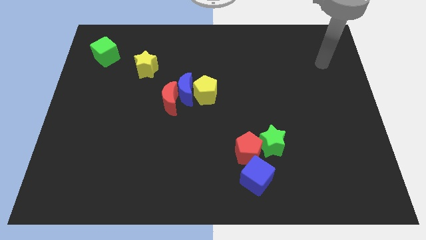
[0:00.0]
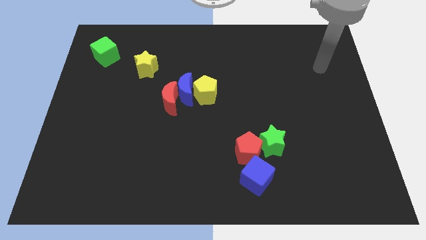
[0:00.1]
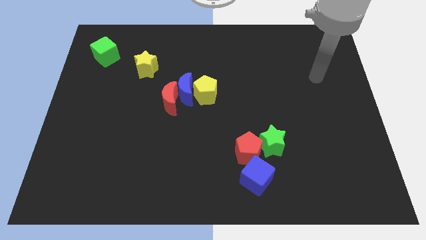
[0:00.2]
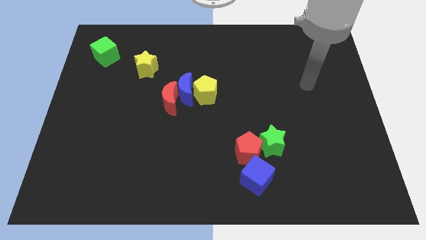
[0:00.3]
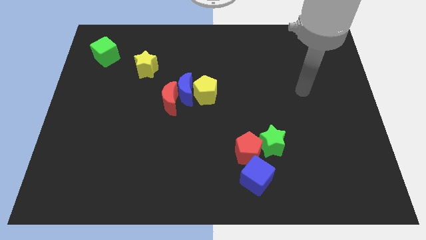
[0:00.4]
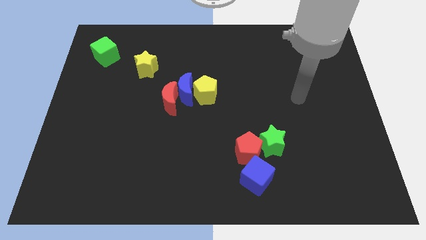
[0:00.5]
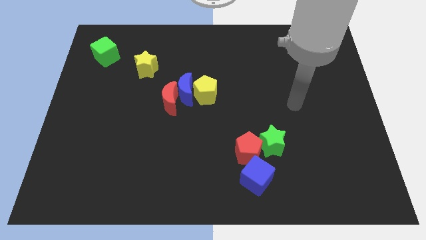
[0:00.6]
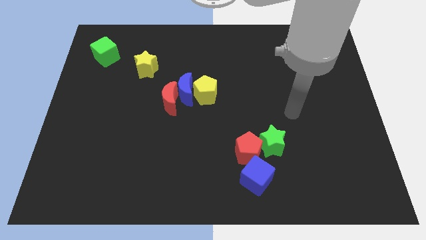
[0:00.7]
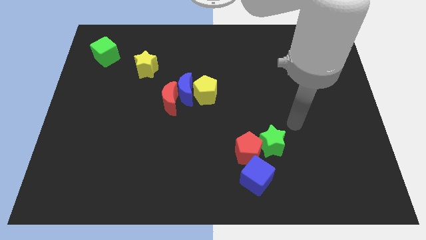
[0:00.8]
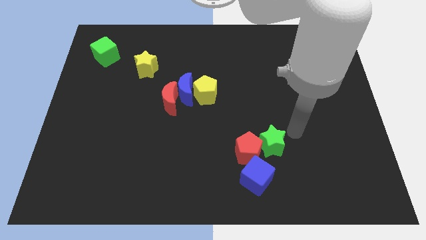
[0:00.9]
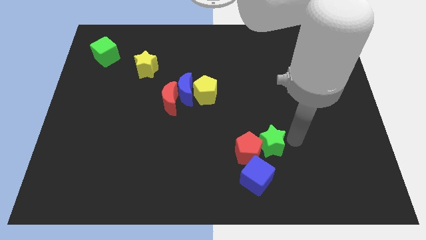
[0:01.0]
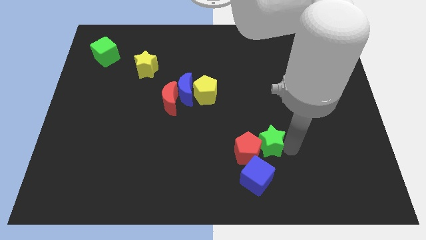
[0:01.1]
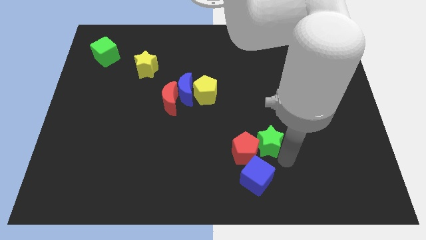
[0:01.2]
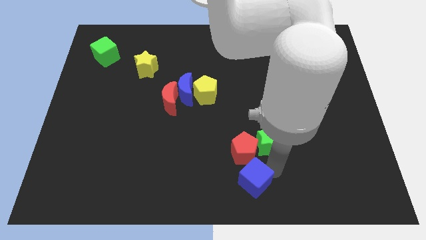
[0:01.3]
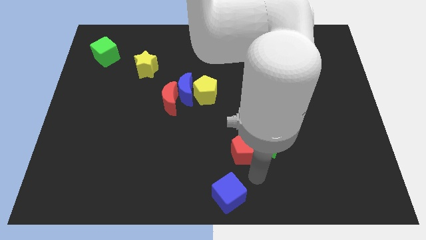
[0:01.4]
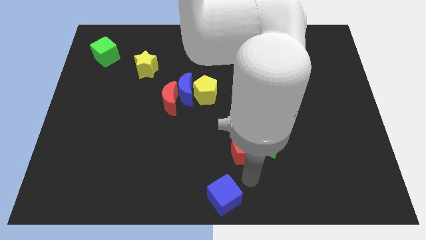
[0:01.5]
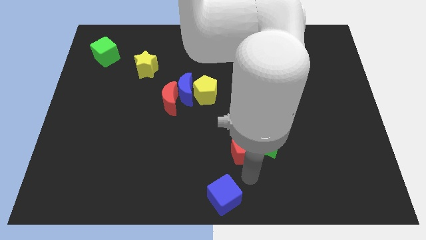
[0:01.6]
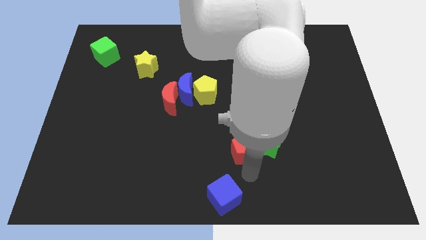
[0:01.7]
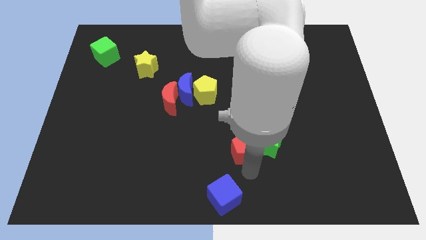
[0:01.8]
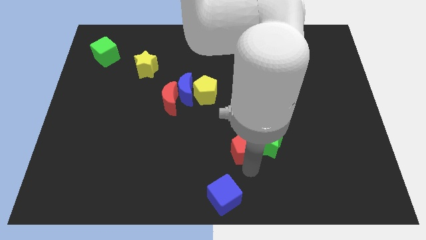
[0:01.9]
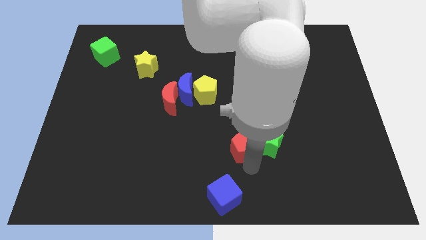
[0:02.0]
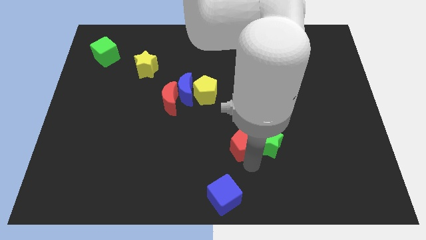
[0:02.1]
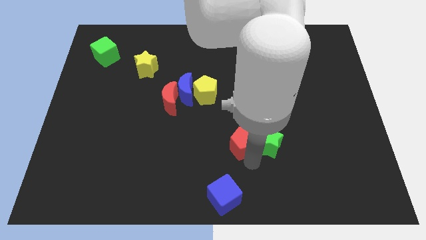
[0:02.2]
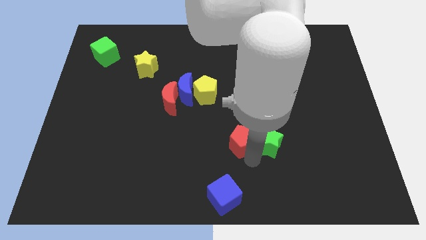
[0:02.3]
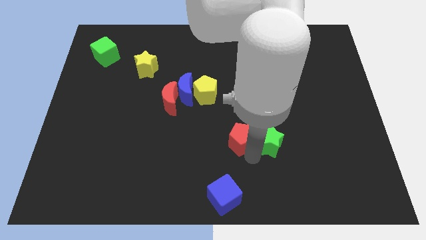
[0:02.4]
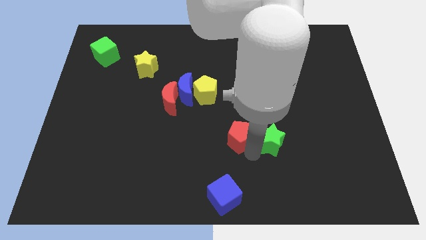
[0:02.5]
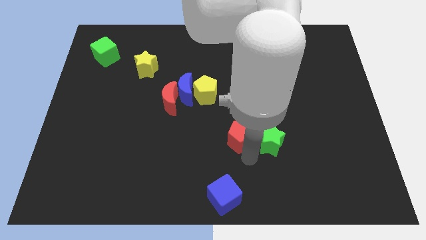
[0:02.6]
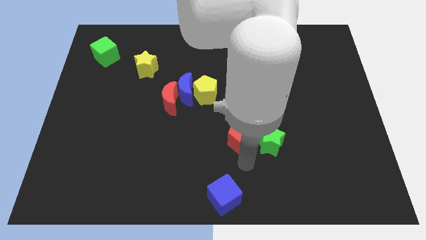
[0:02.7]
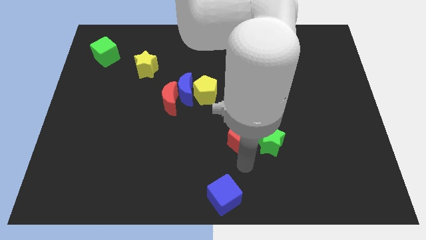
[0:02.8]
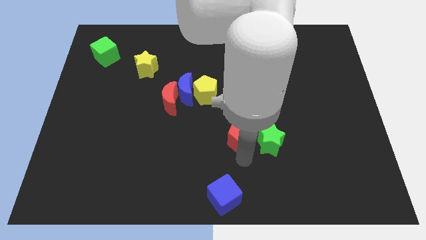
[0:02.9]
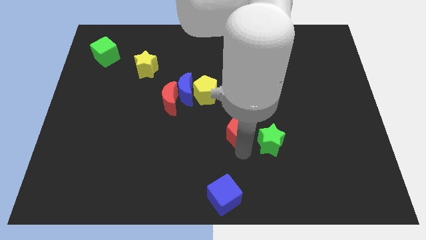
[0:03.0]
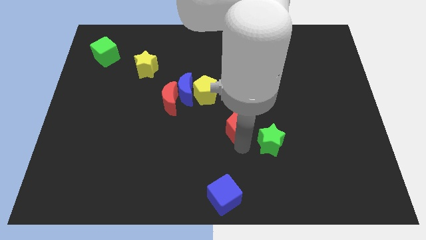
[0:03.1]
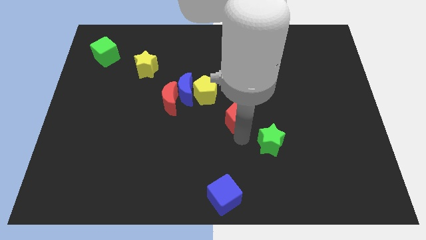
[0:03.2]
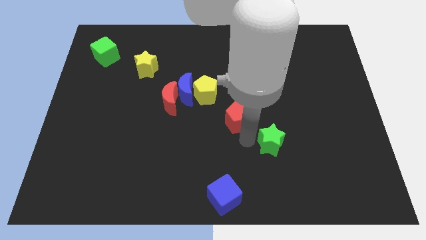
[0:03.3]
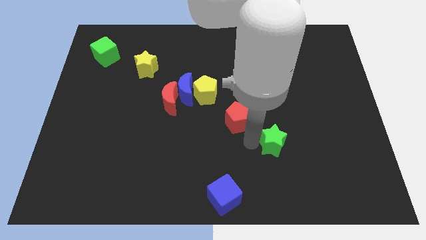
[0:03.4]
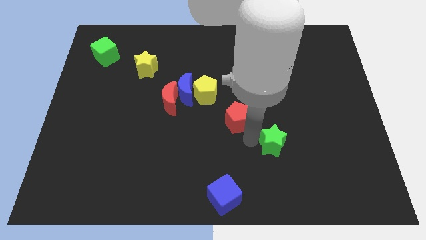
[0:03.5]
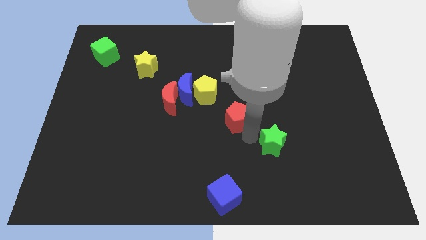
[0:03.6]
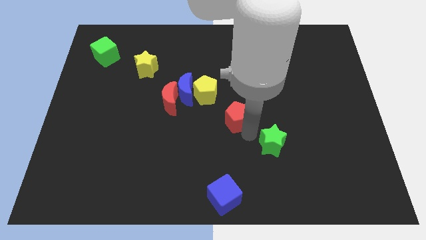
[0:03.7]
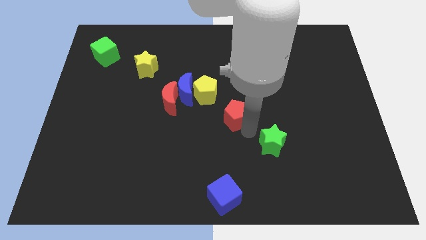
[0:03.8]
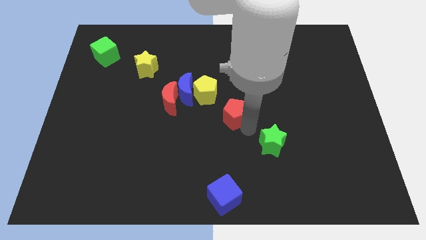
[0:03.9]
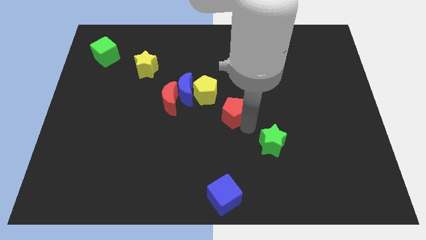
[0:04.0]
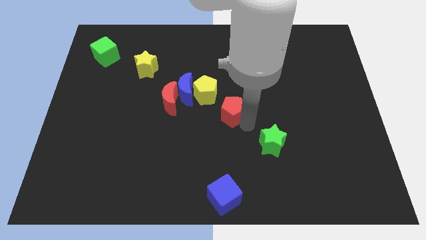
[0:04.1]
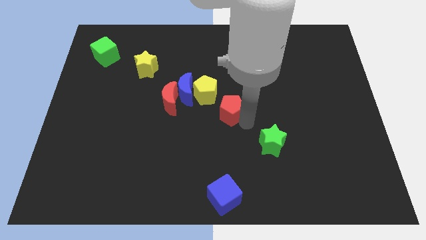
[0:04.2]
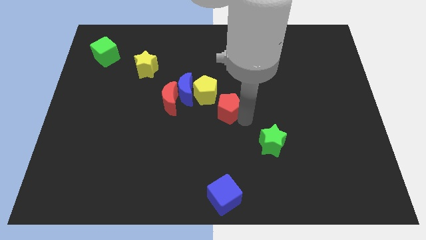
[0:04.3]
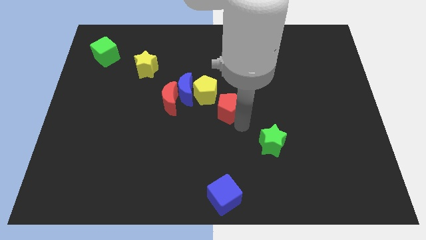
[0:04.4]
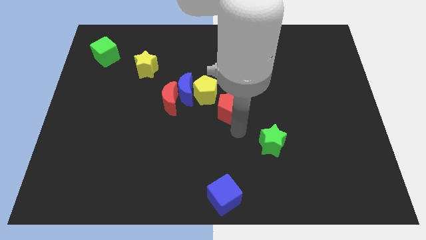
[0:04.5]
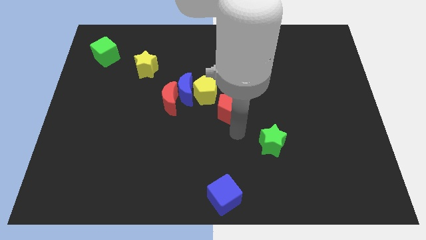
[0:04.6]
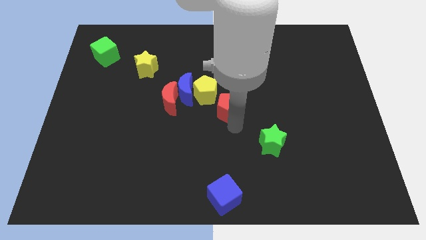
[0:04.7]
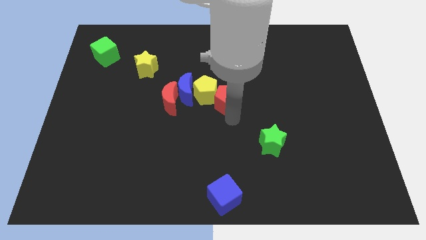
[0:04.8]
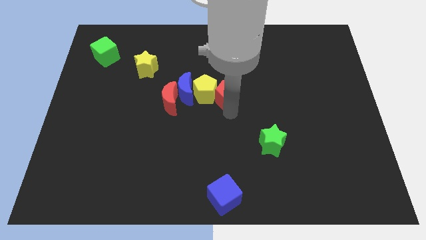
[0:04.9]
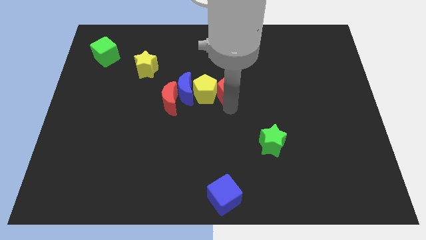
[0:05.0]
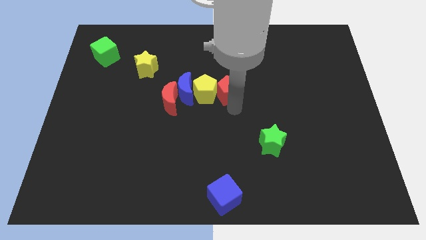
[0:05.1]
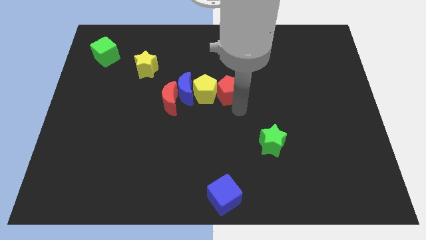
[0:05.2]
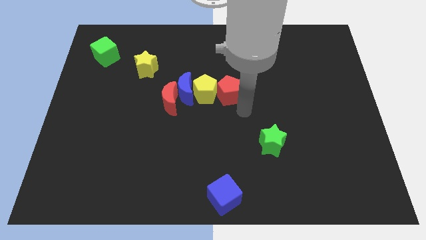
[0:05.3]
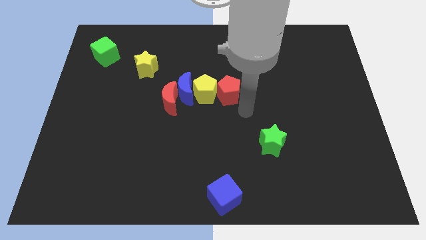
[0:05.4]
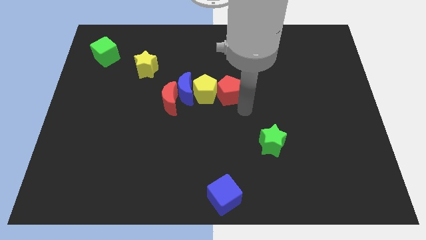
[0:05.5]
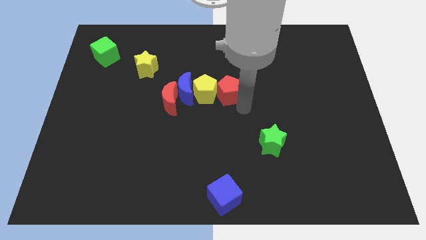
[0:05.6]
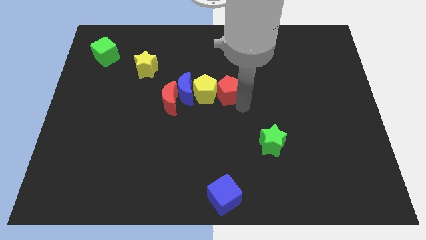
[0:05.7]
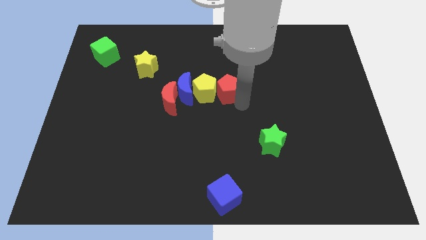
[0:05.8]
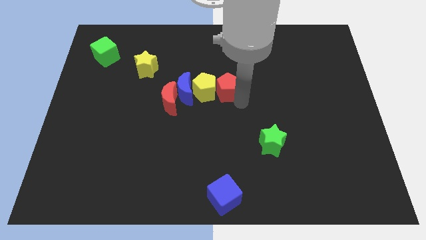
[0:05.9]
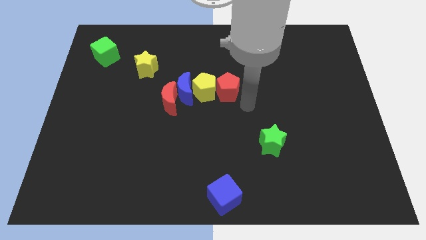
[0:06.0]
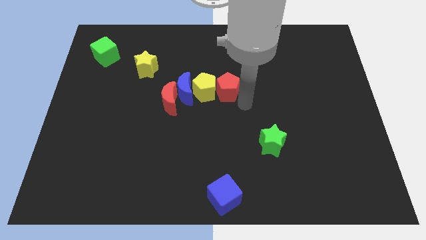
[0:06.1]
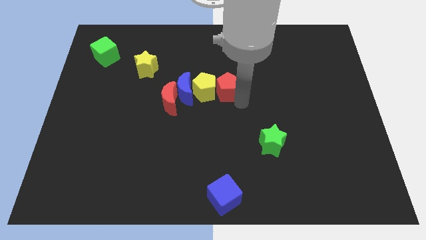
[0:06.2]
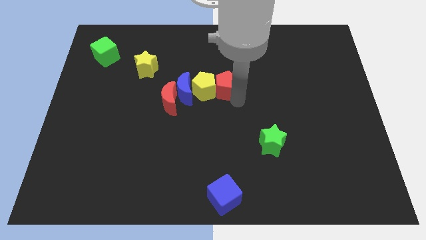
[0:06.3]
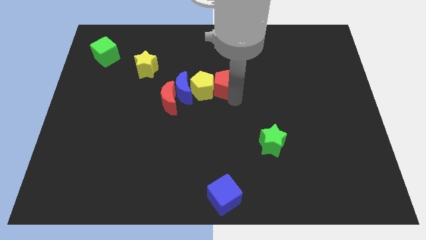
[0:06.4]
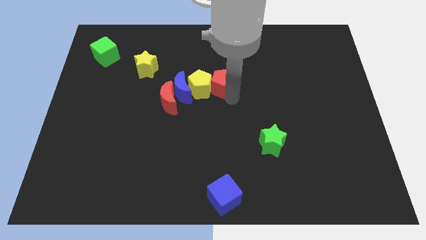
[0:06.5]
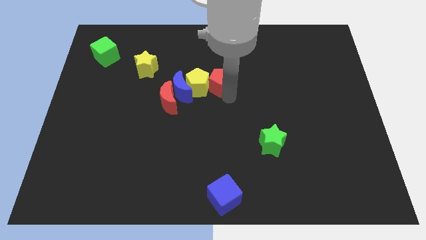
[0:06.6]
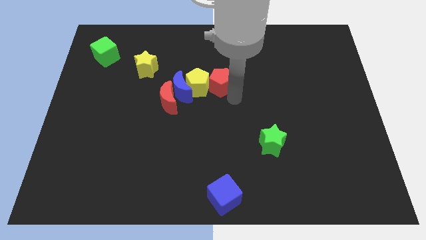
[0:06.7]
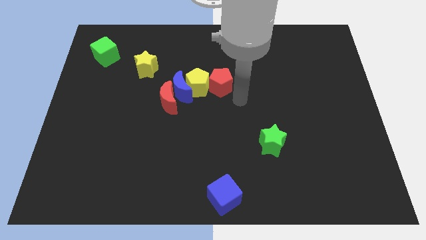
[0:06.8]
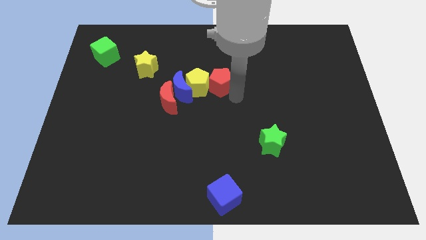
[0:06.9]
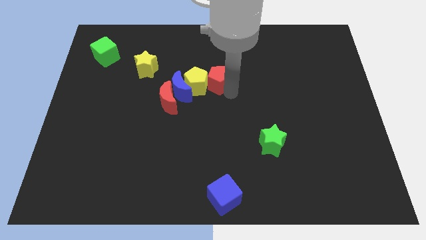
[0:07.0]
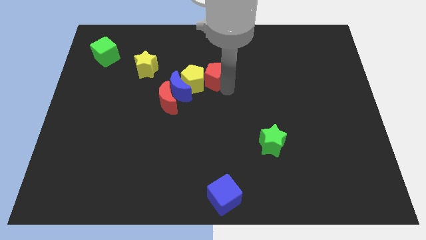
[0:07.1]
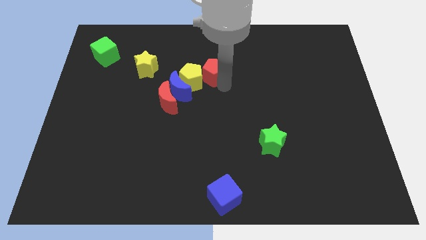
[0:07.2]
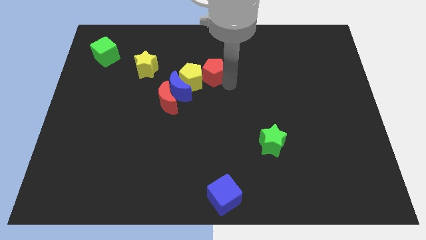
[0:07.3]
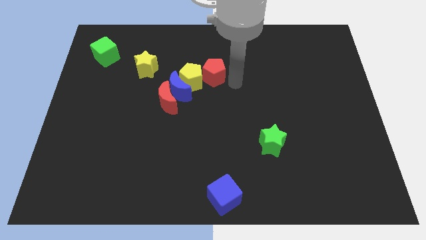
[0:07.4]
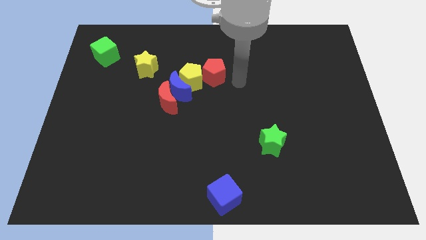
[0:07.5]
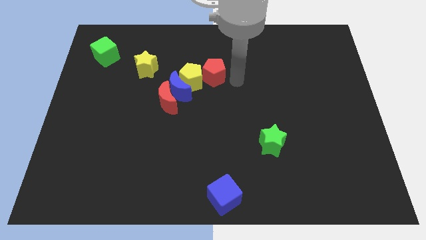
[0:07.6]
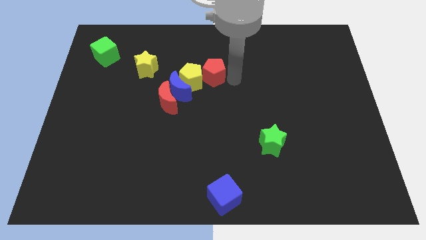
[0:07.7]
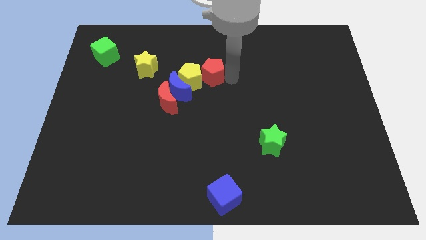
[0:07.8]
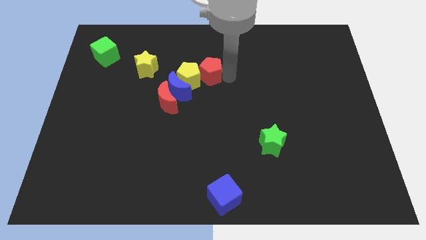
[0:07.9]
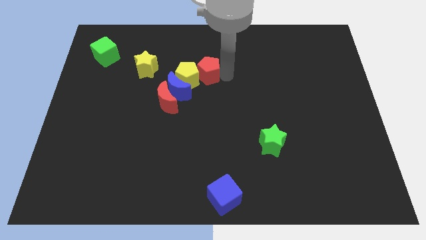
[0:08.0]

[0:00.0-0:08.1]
slide the red pentagon right of the yellow star
